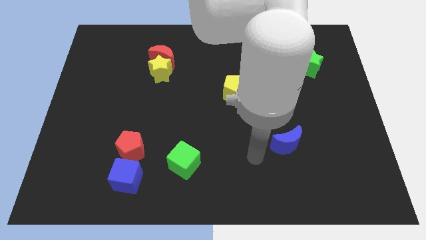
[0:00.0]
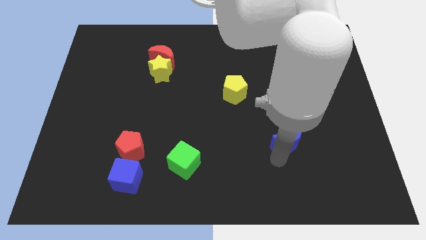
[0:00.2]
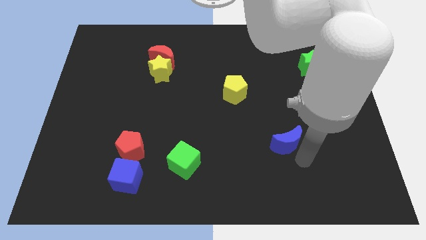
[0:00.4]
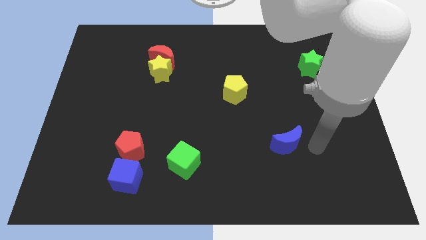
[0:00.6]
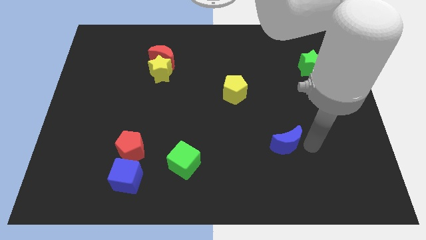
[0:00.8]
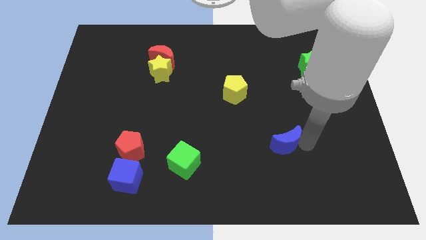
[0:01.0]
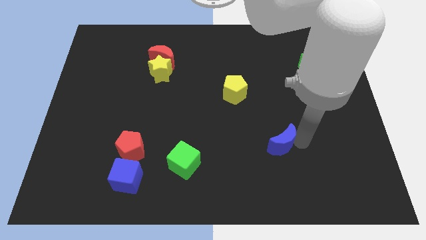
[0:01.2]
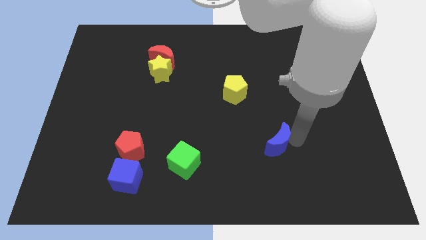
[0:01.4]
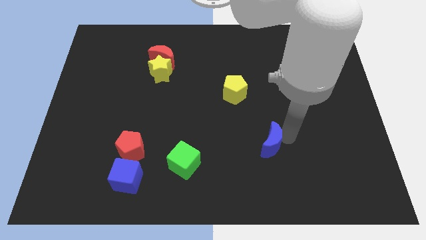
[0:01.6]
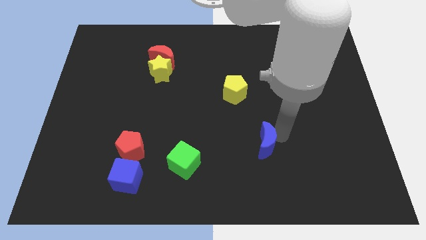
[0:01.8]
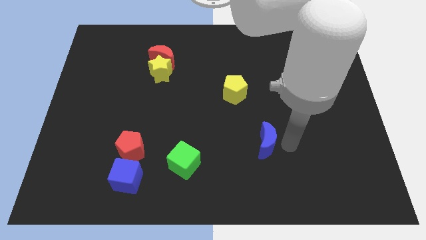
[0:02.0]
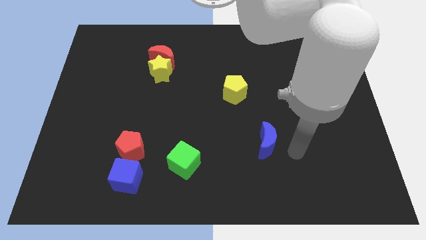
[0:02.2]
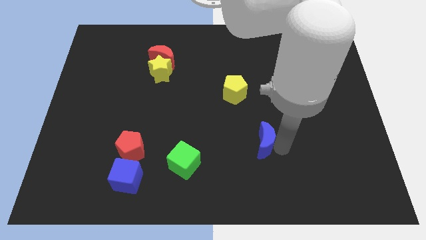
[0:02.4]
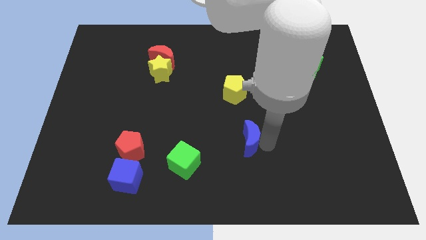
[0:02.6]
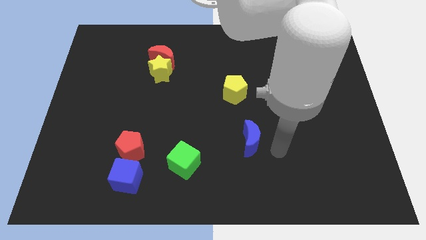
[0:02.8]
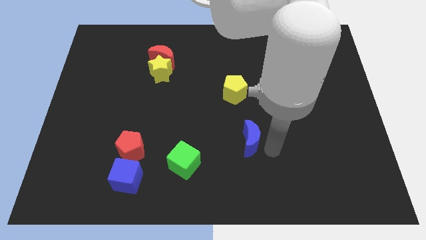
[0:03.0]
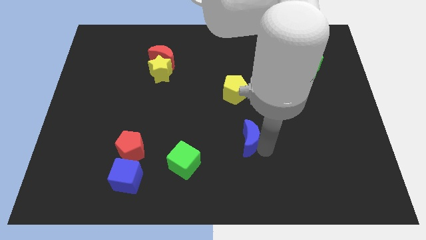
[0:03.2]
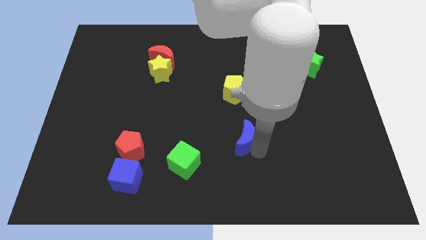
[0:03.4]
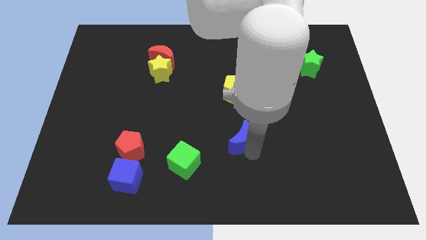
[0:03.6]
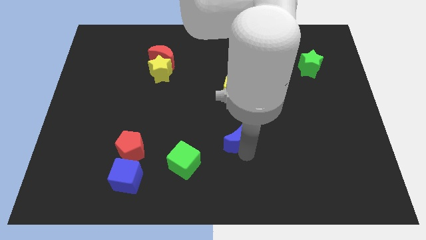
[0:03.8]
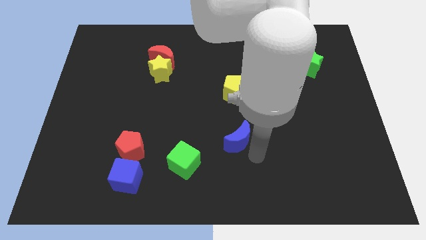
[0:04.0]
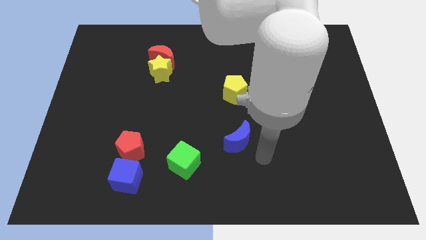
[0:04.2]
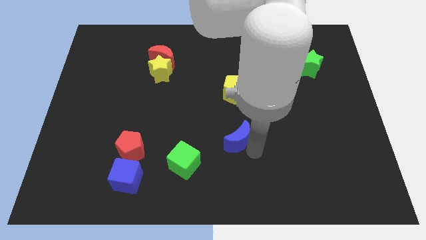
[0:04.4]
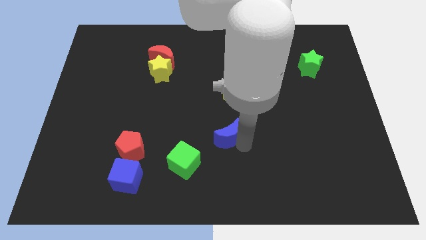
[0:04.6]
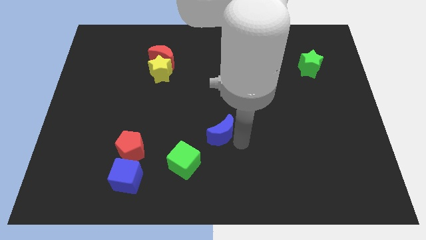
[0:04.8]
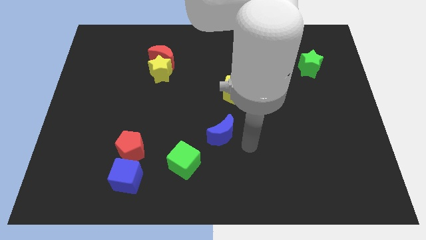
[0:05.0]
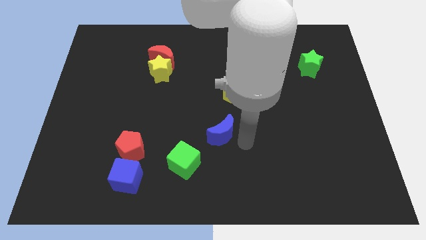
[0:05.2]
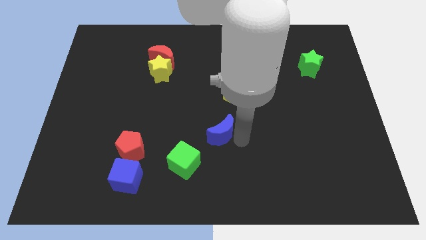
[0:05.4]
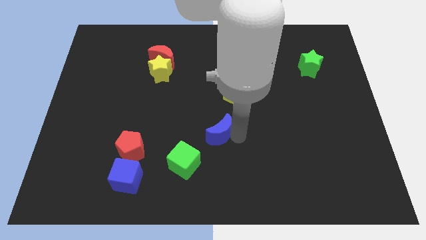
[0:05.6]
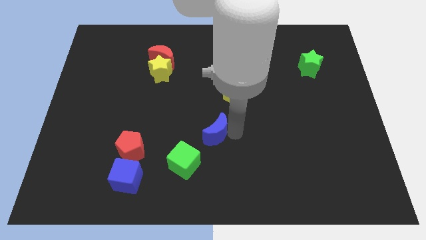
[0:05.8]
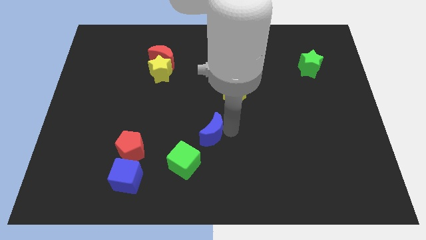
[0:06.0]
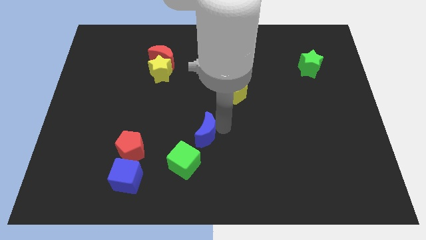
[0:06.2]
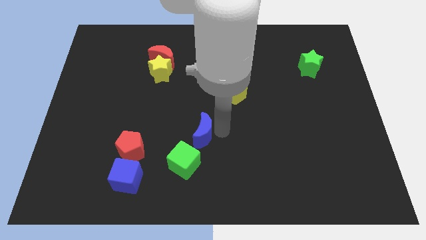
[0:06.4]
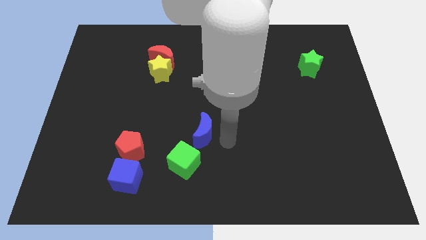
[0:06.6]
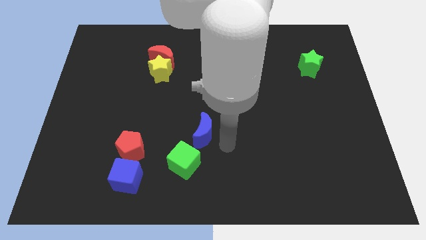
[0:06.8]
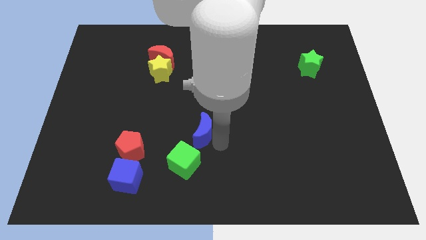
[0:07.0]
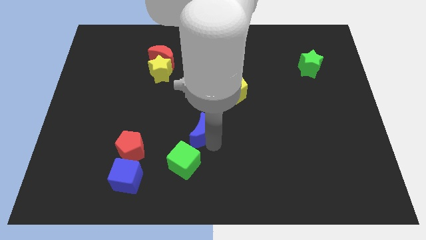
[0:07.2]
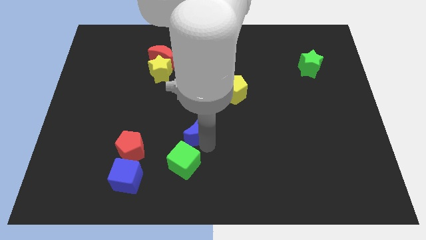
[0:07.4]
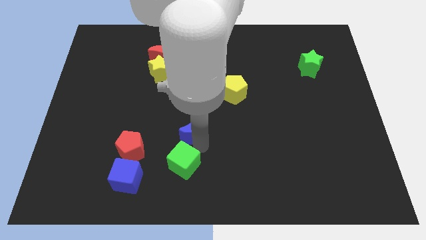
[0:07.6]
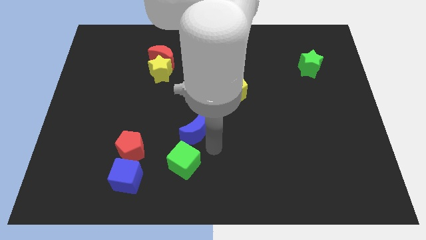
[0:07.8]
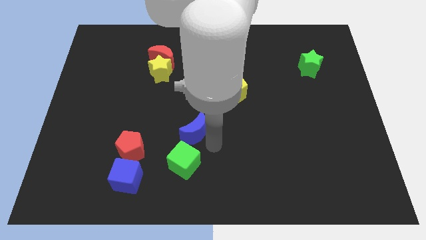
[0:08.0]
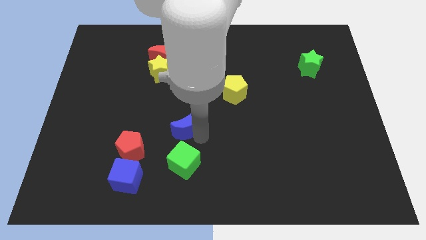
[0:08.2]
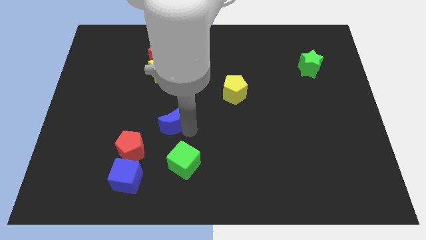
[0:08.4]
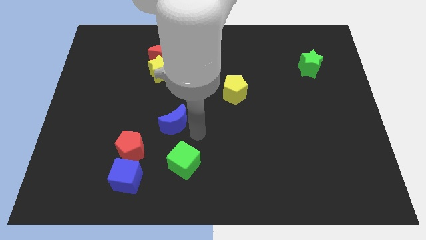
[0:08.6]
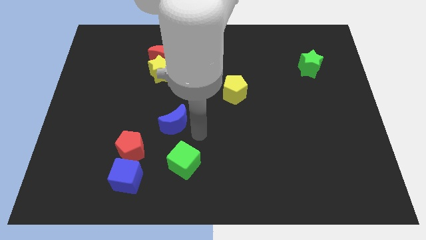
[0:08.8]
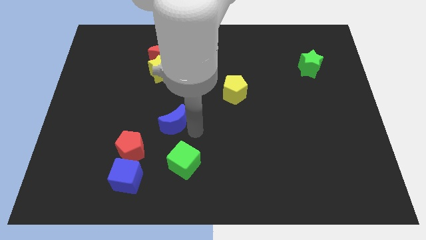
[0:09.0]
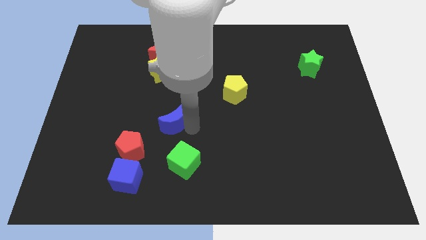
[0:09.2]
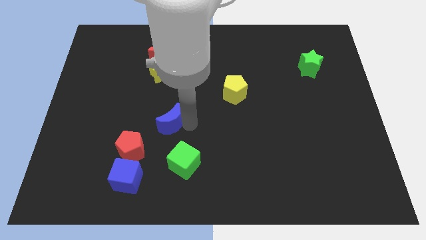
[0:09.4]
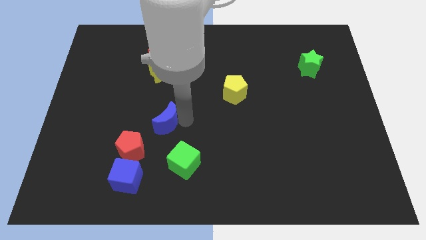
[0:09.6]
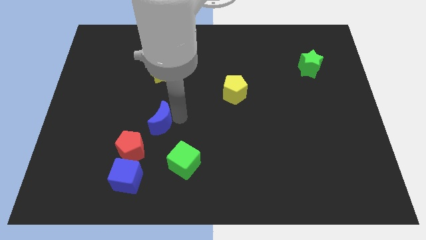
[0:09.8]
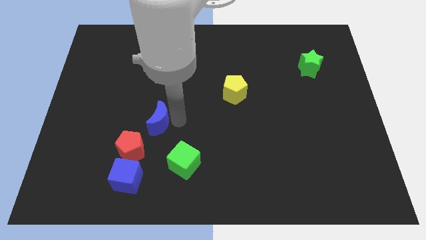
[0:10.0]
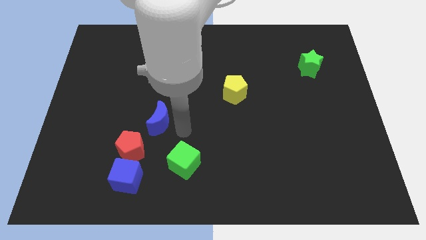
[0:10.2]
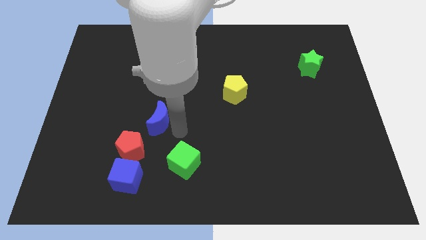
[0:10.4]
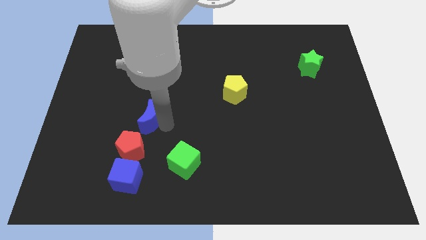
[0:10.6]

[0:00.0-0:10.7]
put the blue moon to the top side of the red pentagon

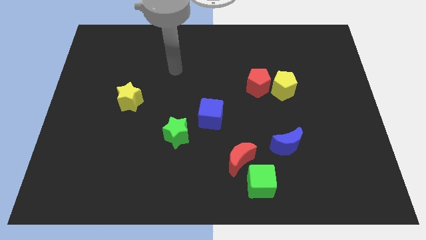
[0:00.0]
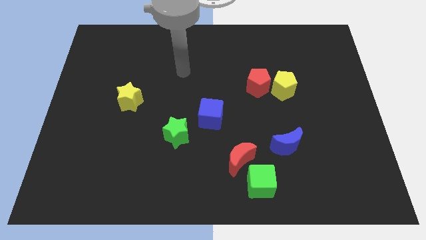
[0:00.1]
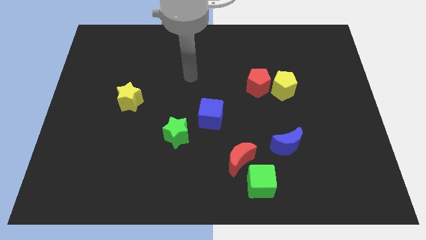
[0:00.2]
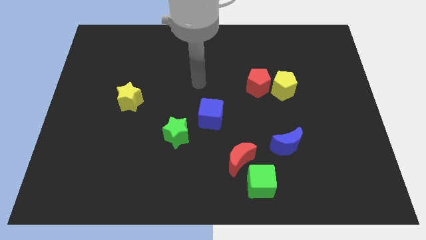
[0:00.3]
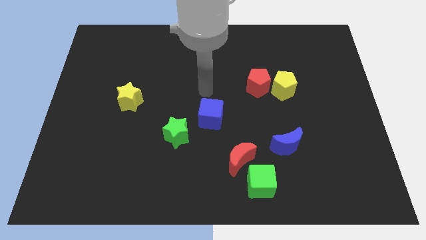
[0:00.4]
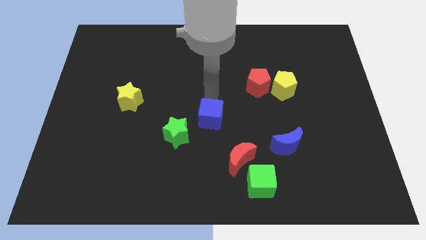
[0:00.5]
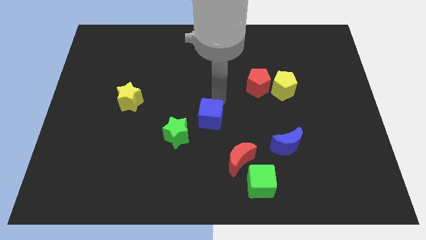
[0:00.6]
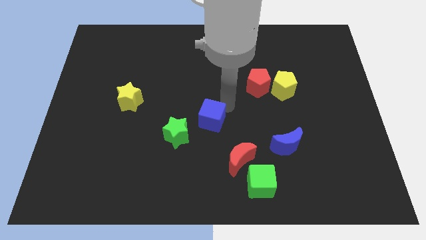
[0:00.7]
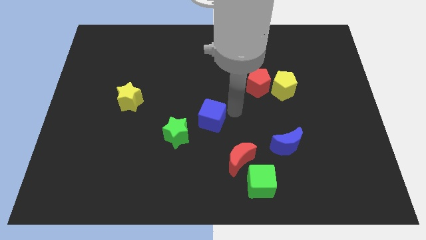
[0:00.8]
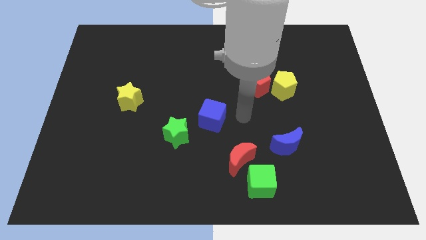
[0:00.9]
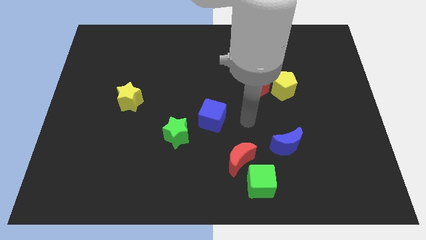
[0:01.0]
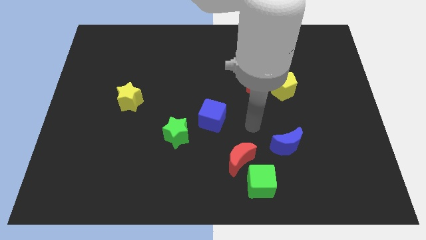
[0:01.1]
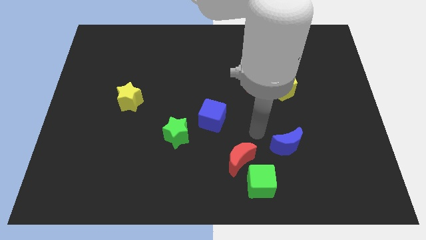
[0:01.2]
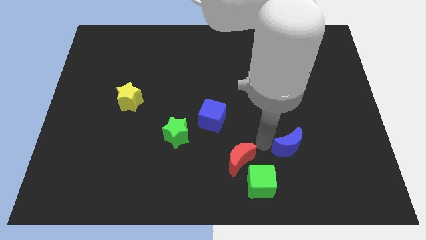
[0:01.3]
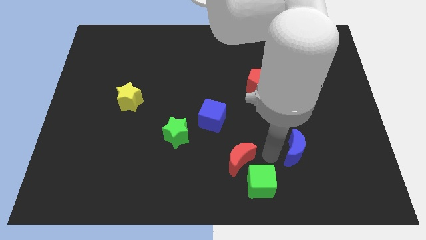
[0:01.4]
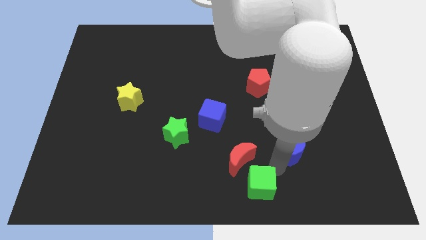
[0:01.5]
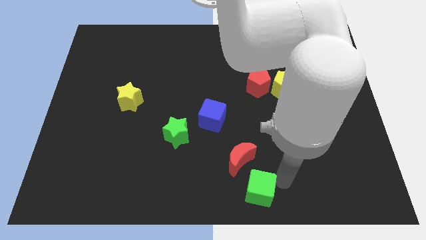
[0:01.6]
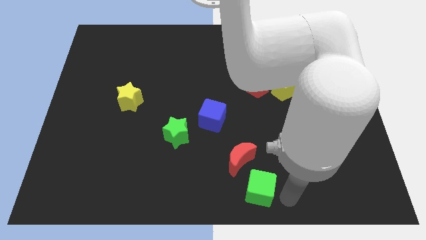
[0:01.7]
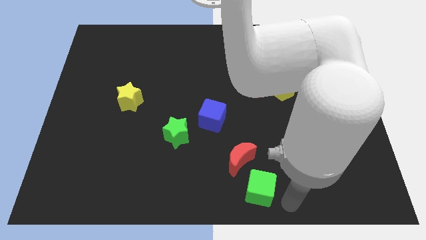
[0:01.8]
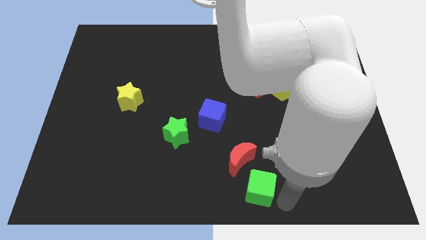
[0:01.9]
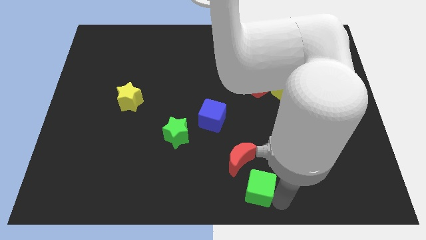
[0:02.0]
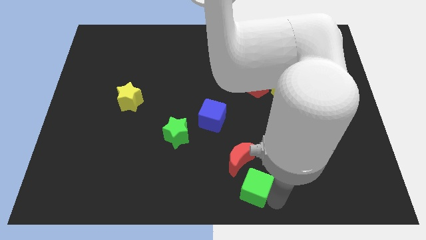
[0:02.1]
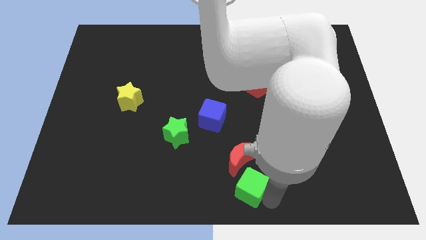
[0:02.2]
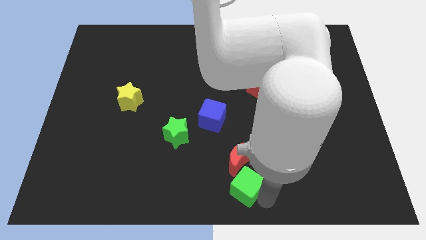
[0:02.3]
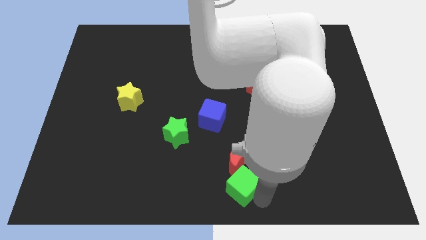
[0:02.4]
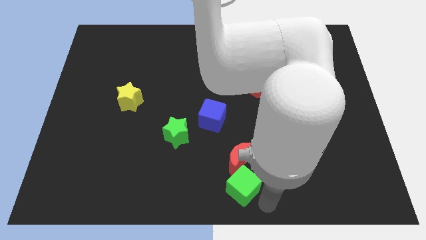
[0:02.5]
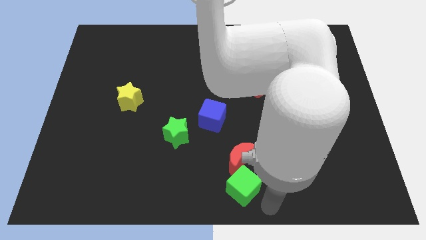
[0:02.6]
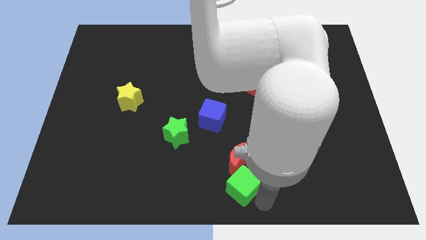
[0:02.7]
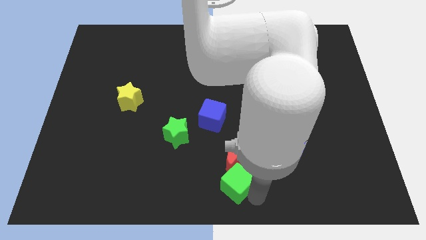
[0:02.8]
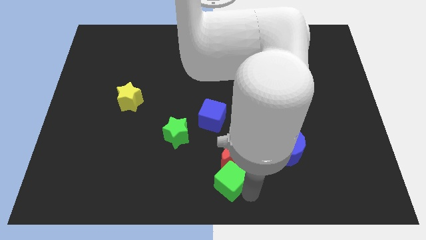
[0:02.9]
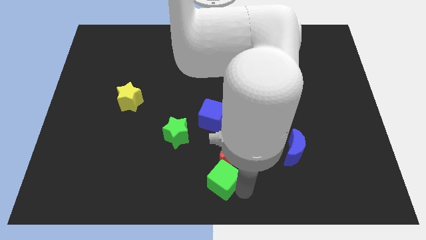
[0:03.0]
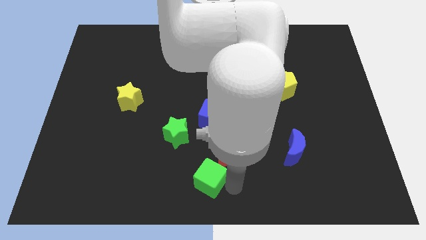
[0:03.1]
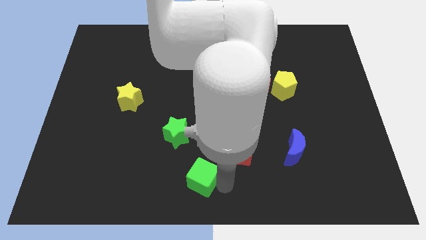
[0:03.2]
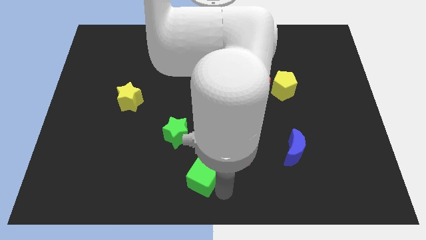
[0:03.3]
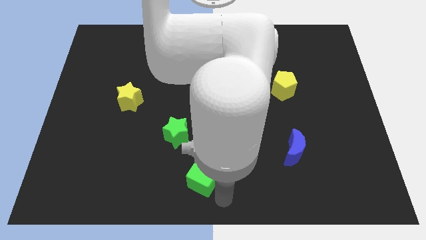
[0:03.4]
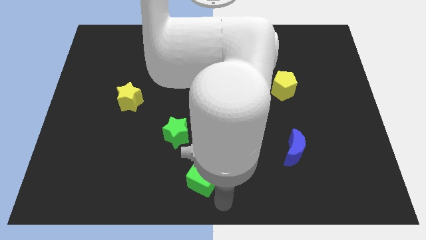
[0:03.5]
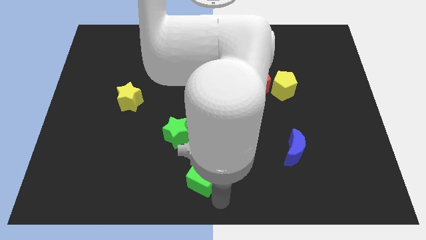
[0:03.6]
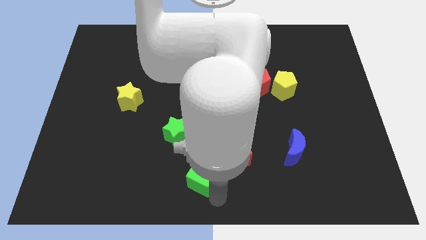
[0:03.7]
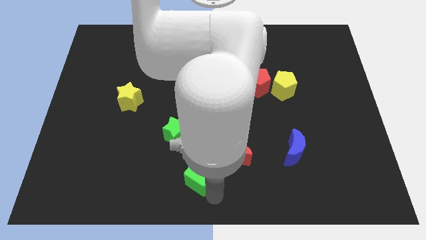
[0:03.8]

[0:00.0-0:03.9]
put the green cube to the left side of the red moon
